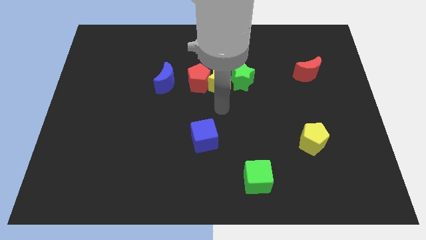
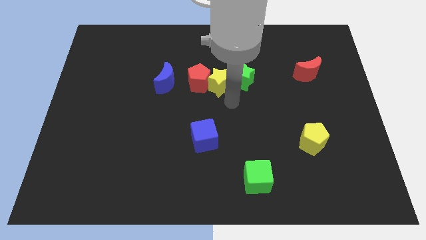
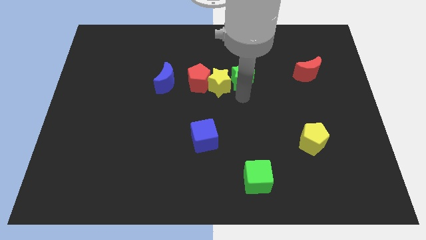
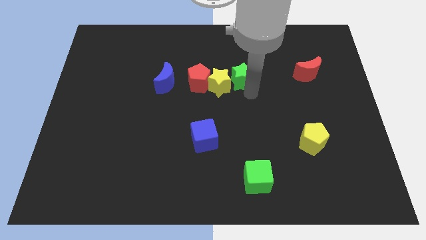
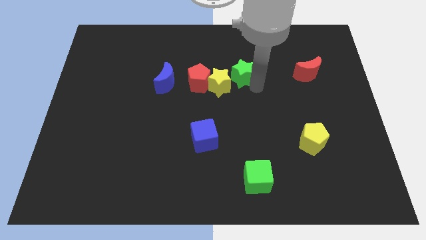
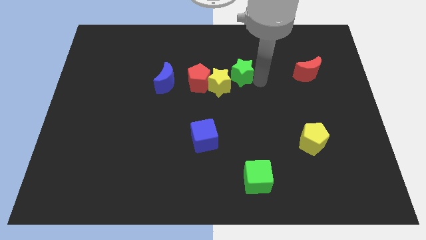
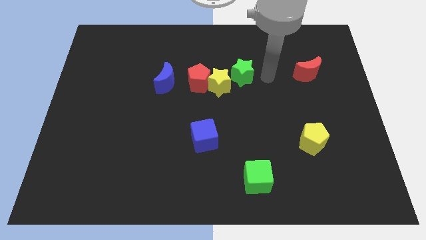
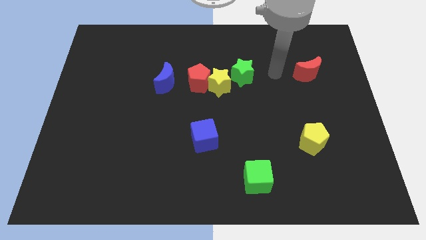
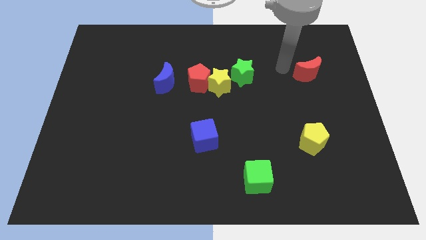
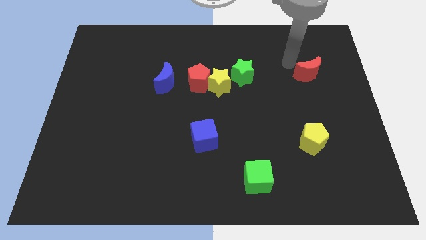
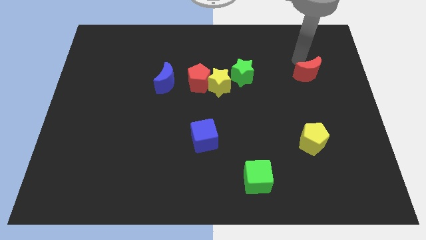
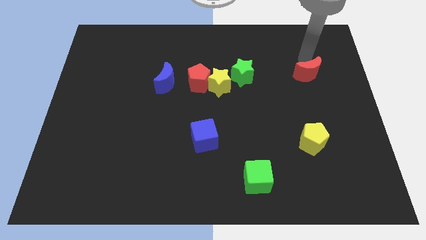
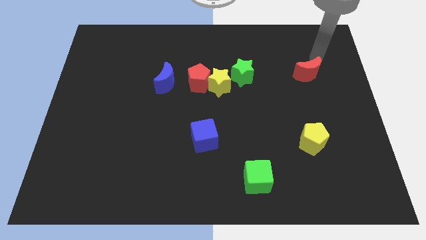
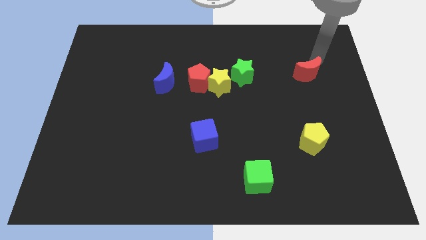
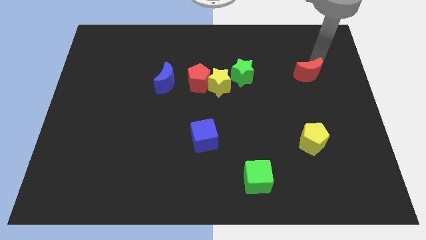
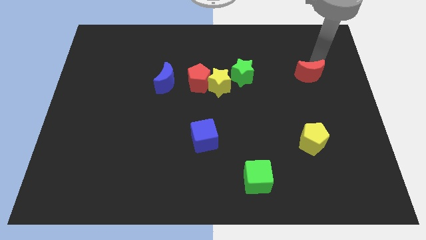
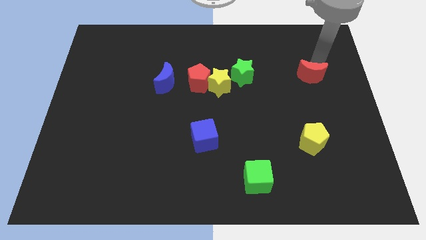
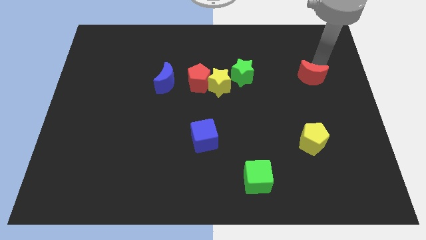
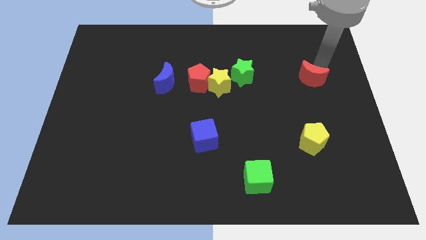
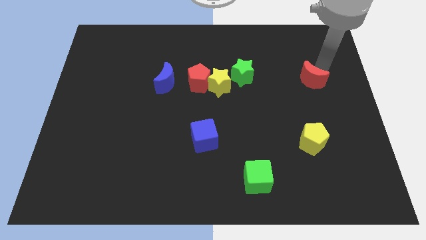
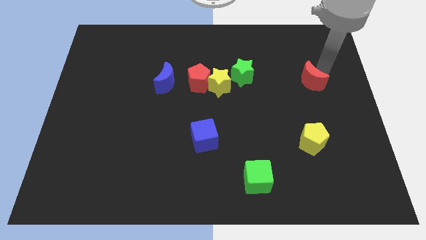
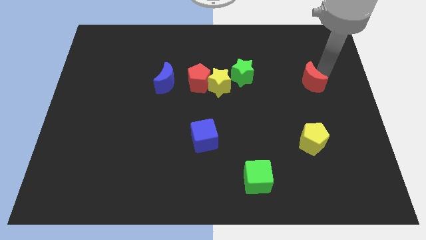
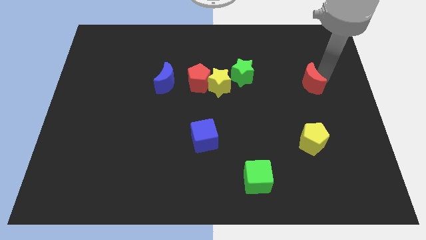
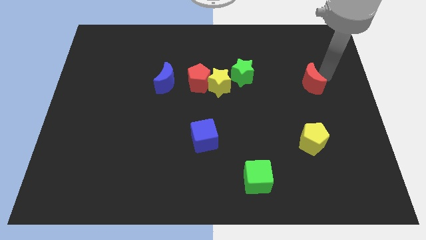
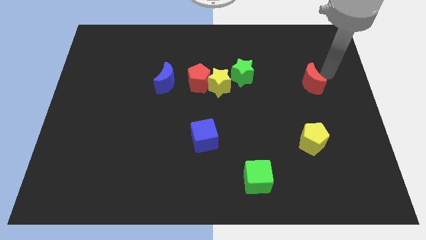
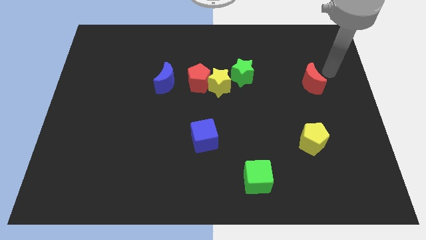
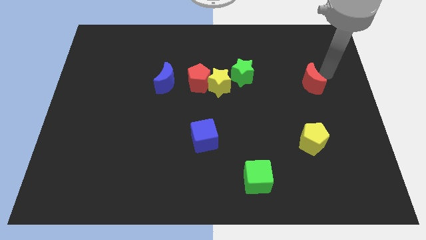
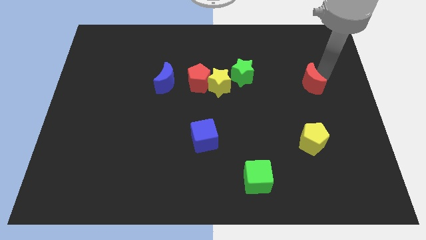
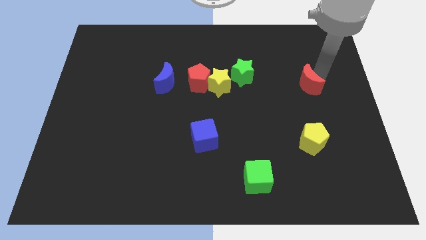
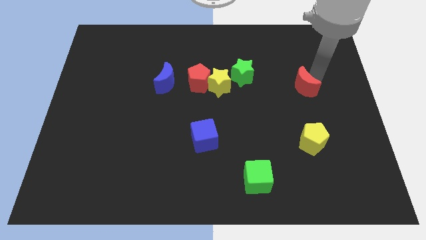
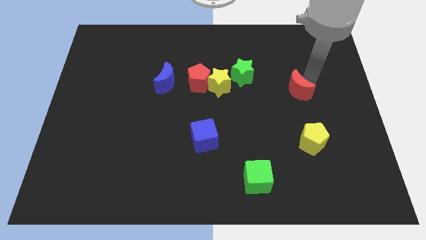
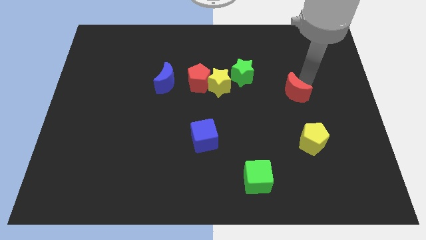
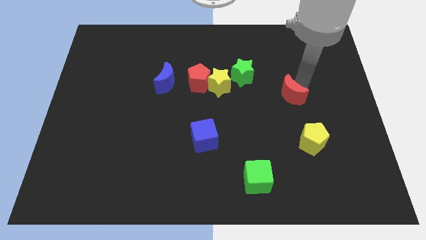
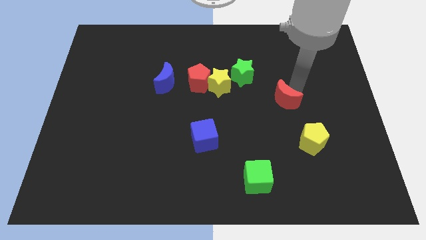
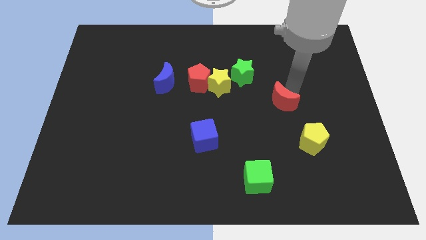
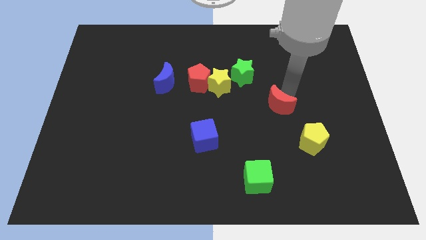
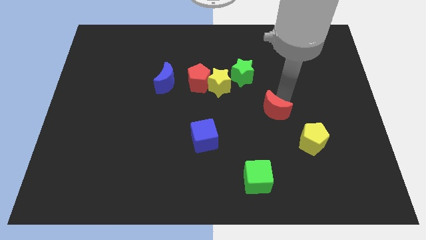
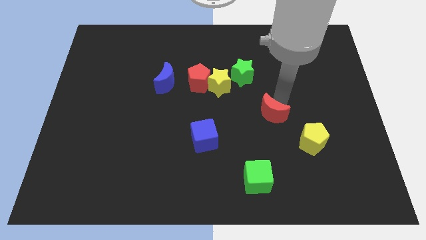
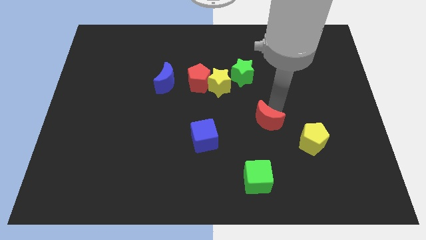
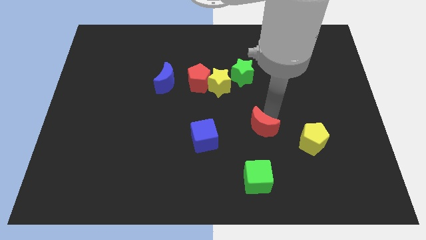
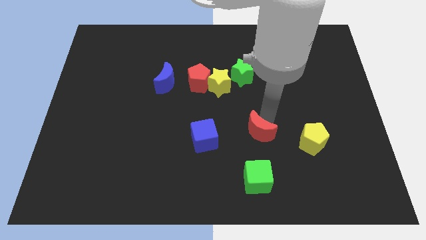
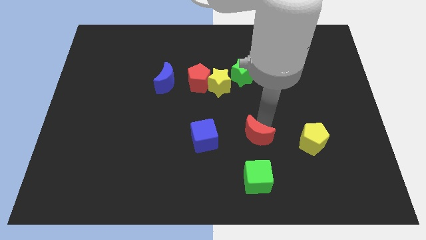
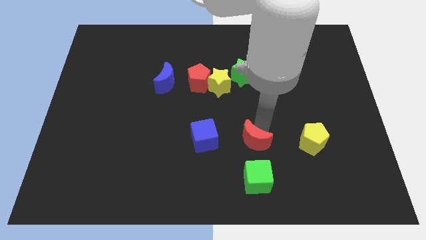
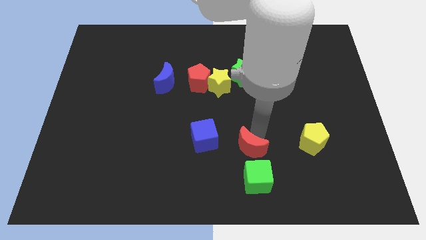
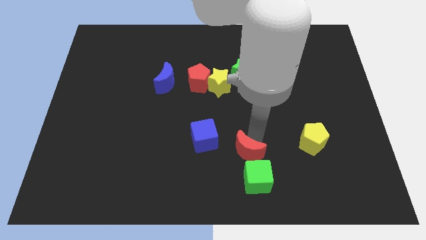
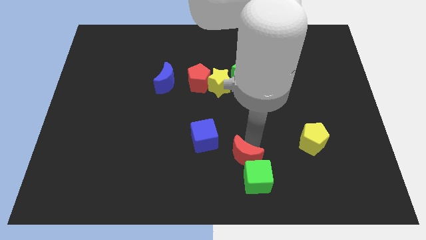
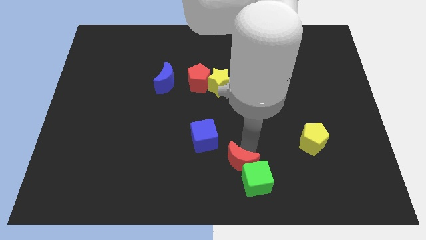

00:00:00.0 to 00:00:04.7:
push the red moon to the bottom side

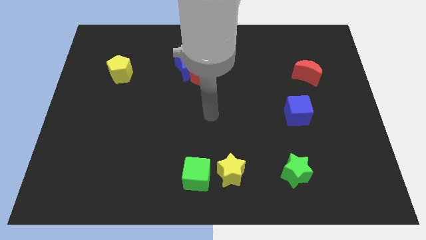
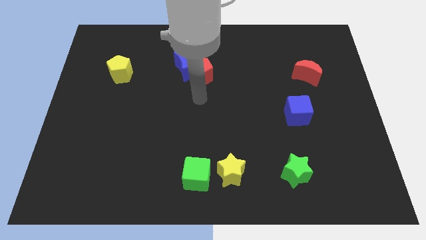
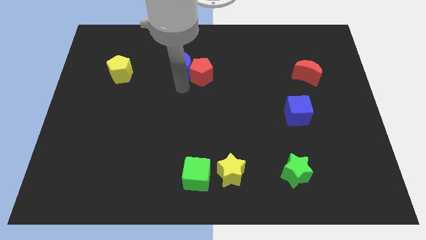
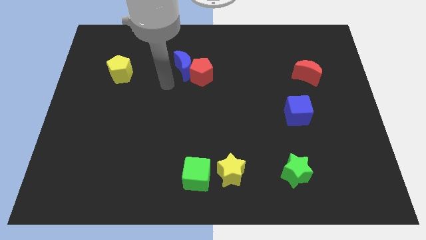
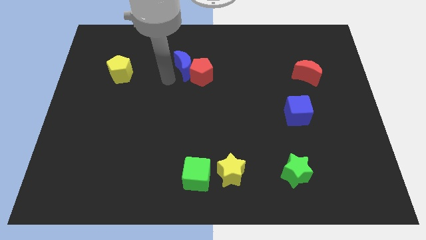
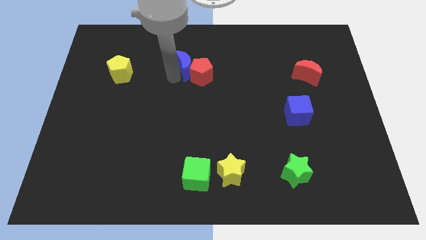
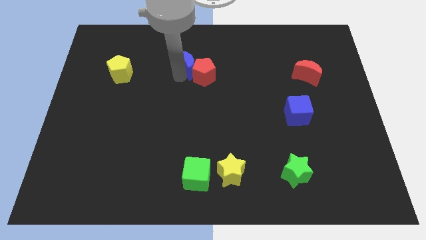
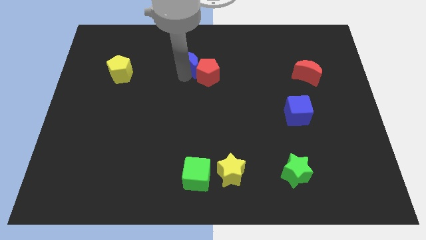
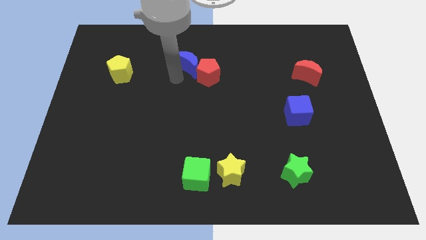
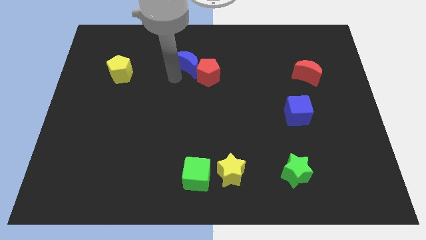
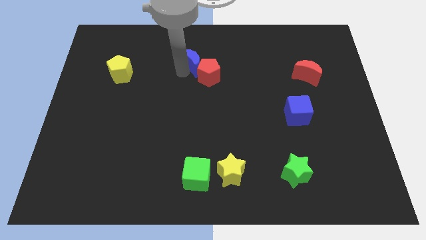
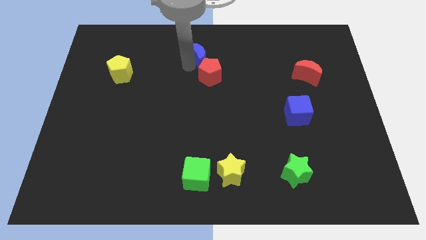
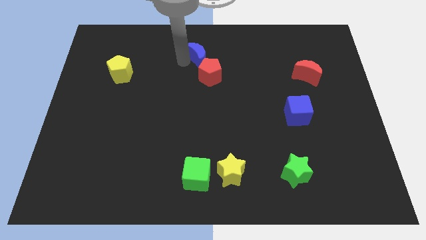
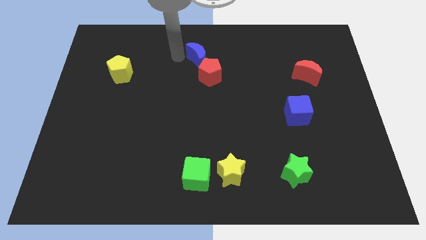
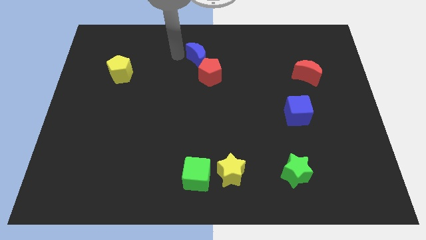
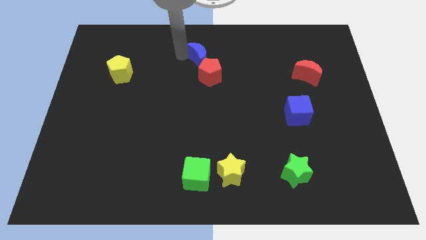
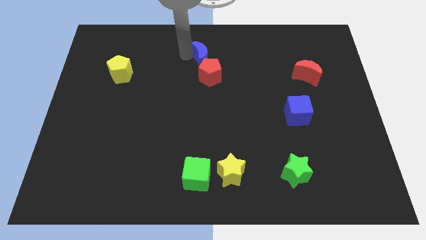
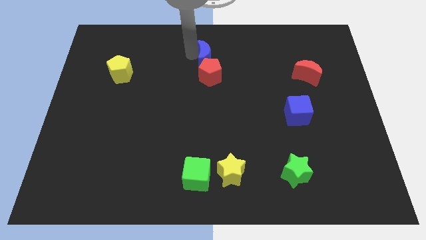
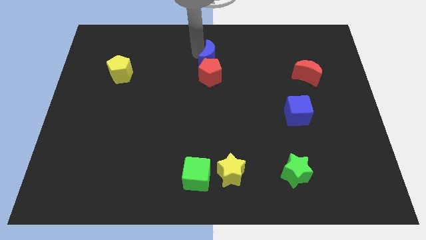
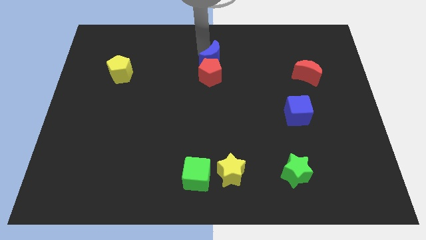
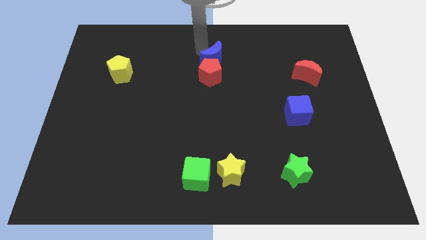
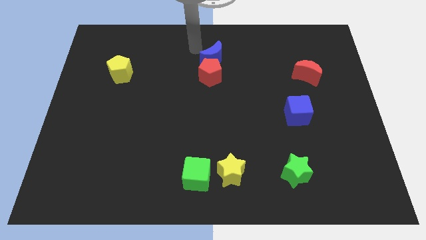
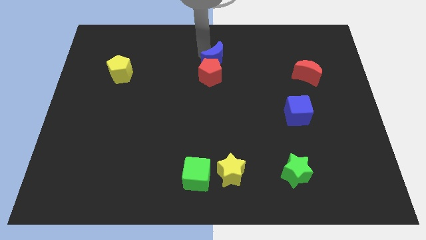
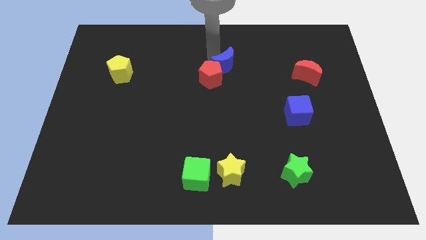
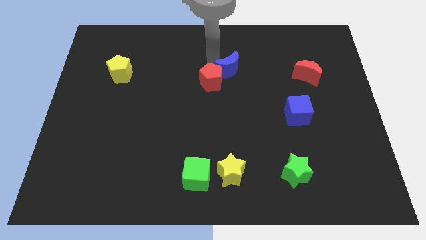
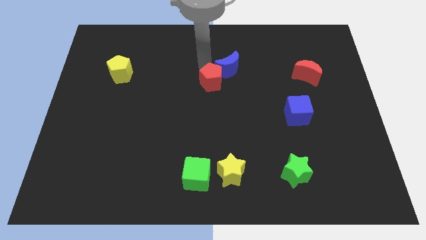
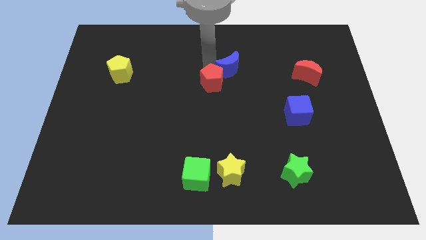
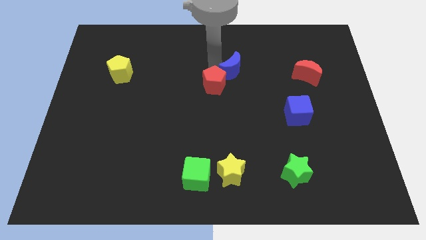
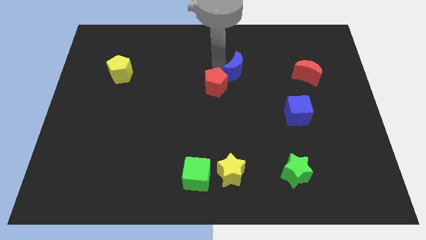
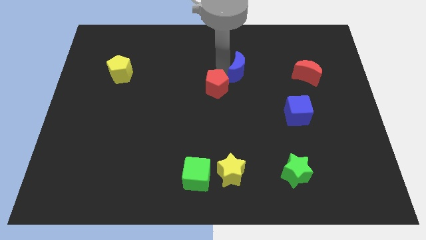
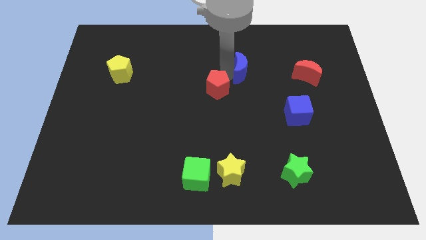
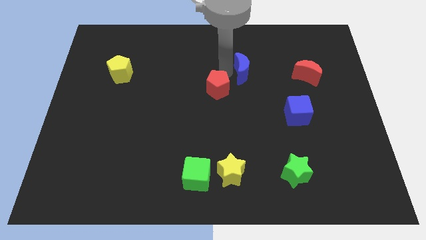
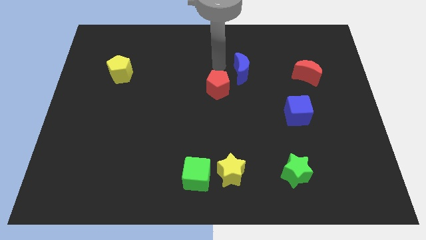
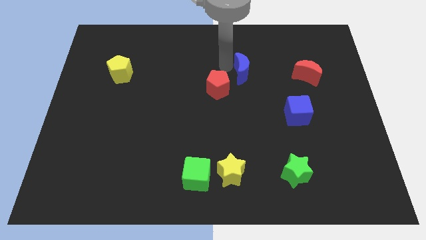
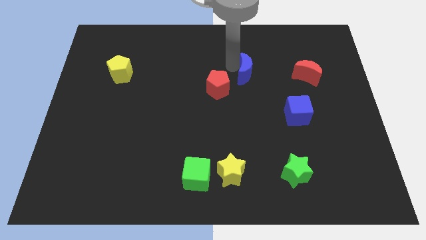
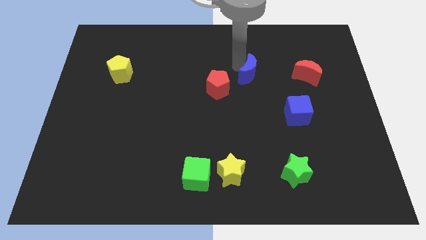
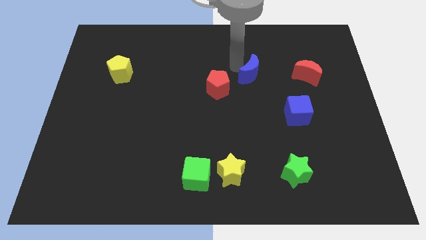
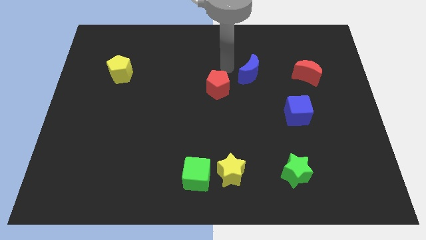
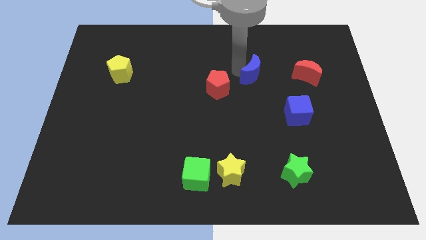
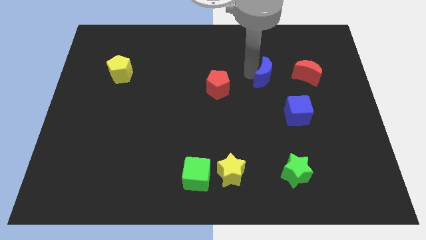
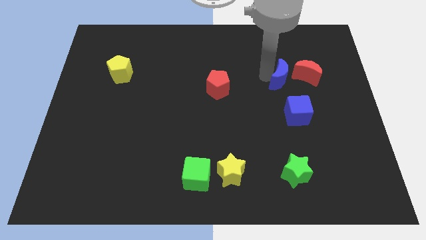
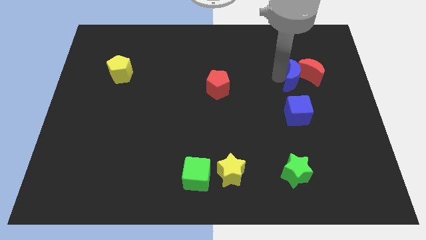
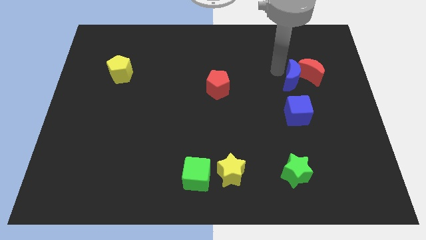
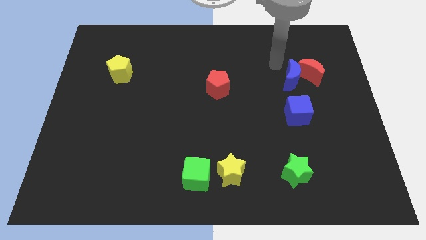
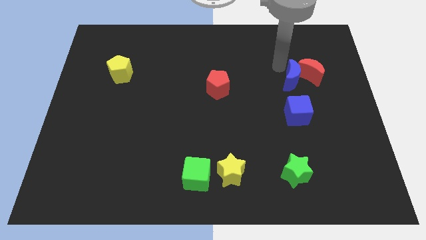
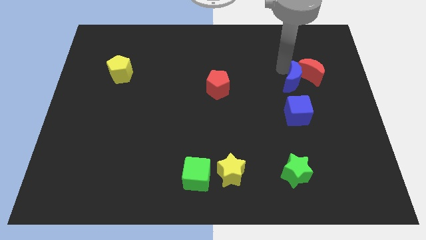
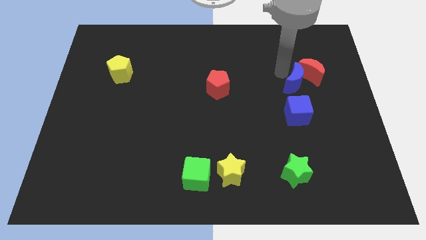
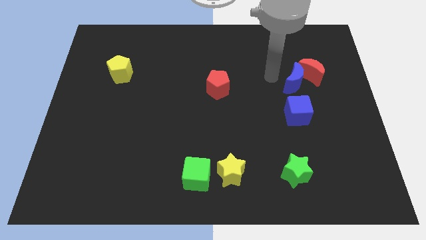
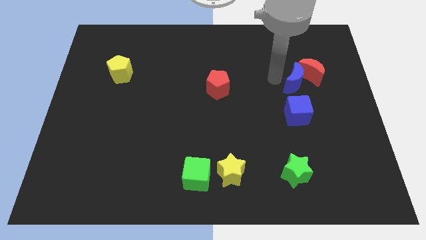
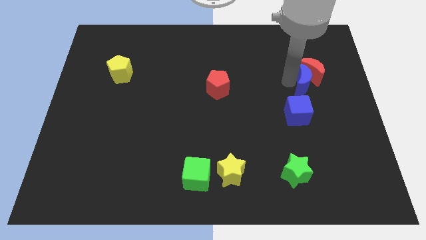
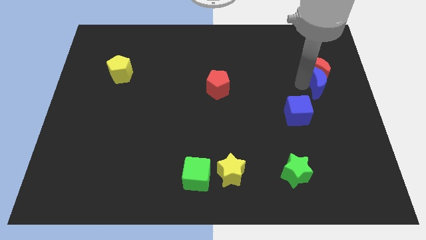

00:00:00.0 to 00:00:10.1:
put the blue moon to the right side of the board
